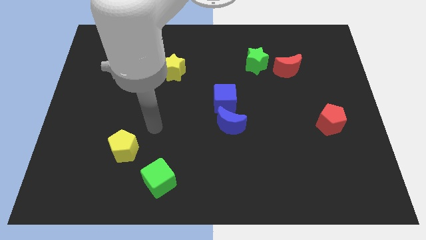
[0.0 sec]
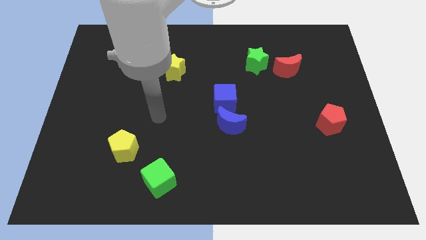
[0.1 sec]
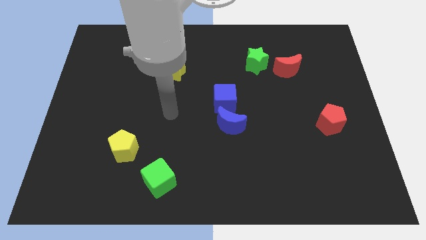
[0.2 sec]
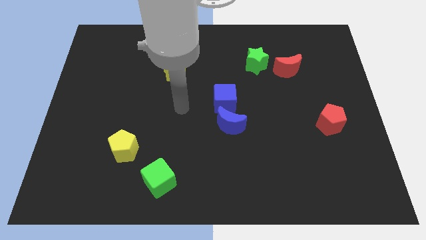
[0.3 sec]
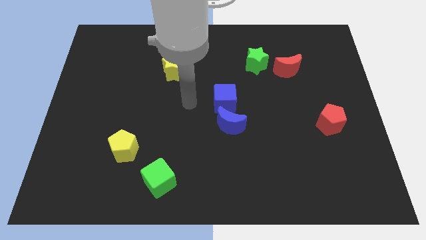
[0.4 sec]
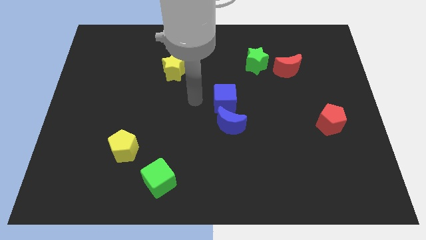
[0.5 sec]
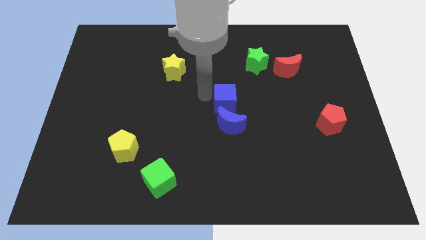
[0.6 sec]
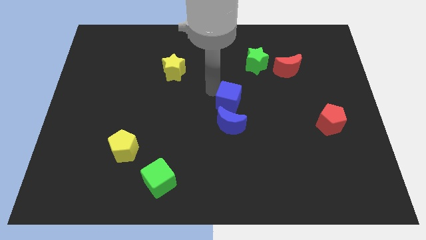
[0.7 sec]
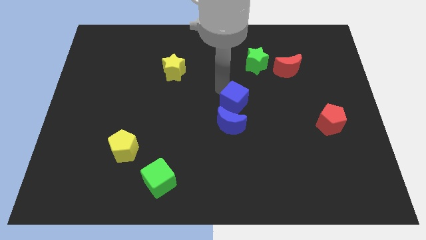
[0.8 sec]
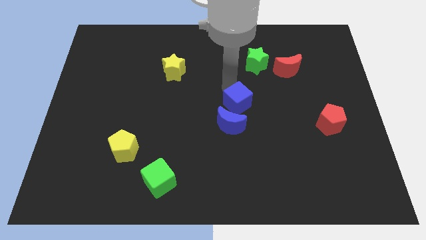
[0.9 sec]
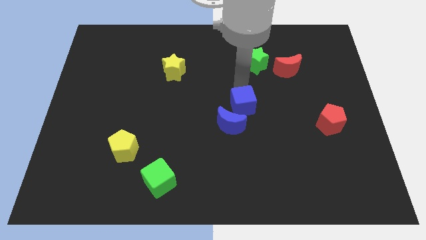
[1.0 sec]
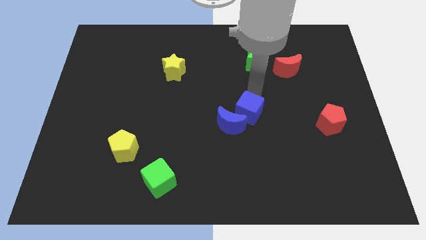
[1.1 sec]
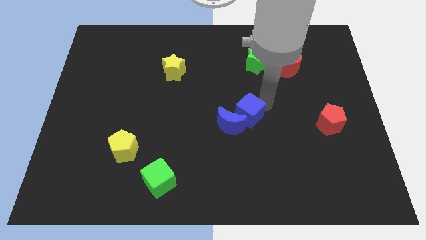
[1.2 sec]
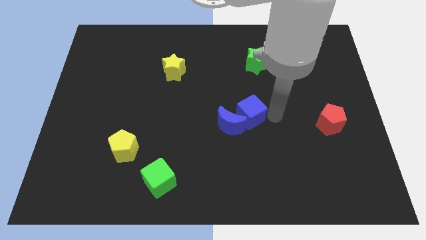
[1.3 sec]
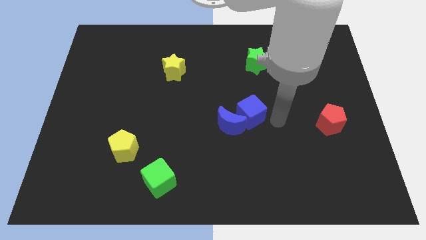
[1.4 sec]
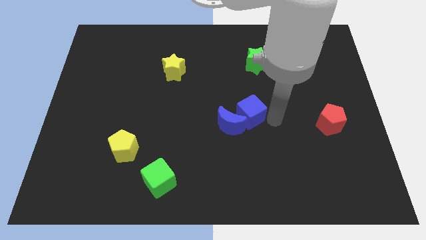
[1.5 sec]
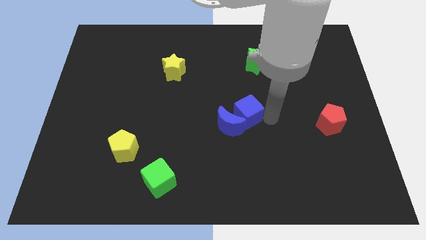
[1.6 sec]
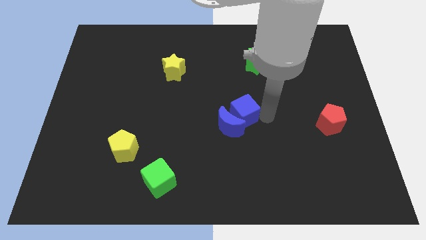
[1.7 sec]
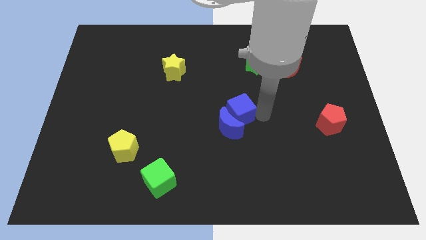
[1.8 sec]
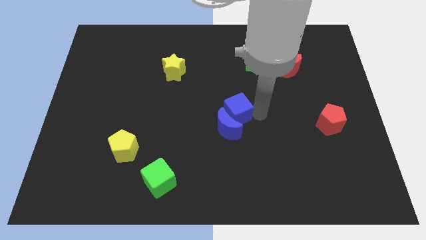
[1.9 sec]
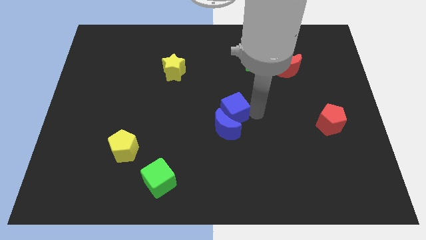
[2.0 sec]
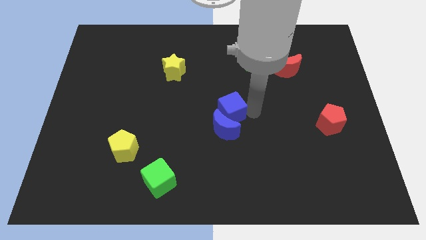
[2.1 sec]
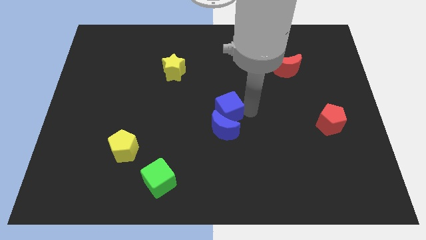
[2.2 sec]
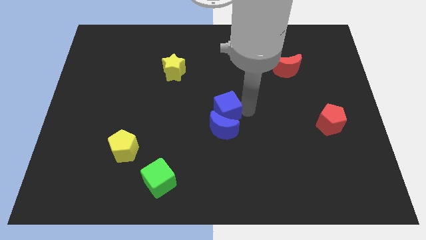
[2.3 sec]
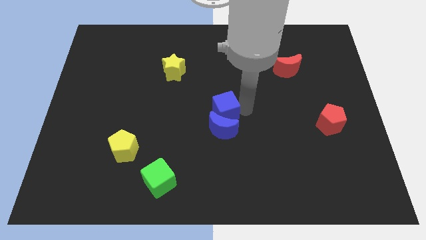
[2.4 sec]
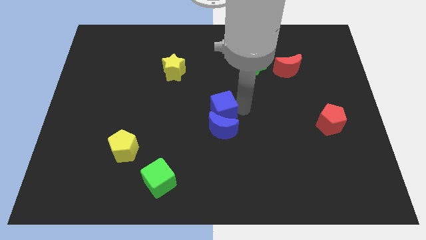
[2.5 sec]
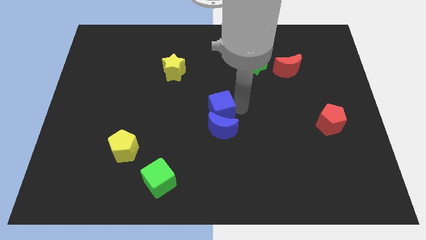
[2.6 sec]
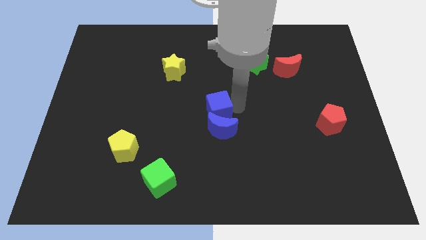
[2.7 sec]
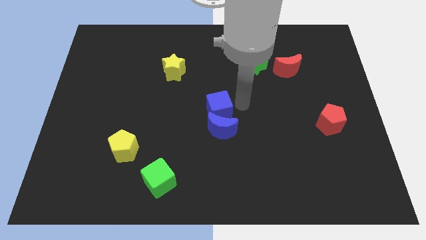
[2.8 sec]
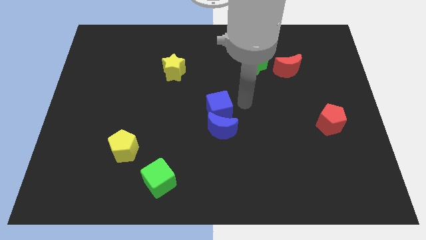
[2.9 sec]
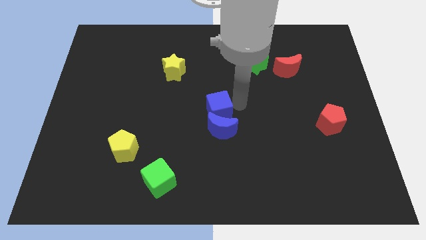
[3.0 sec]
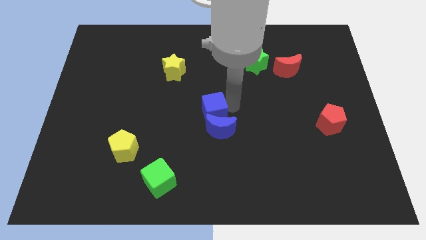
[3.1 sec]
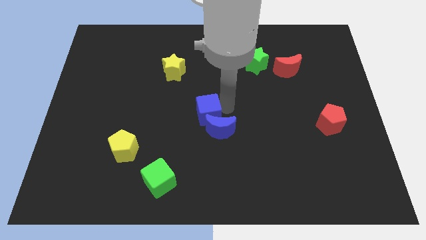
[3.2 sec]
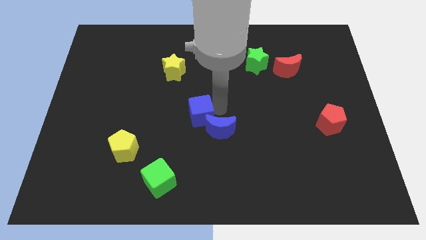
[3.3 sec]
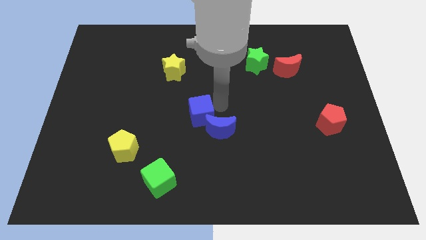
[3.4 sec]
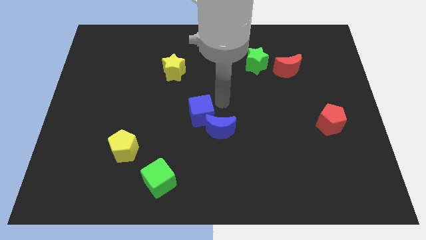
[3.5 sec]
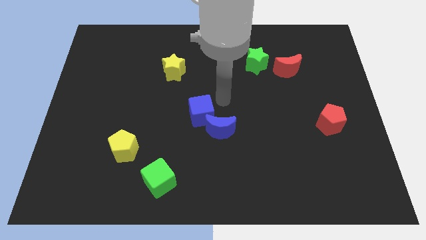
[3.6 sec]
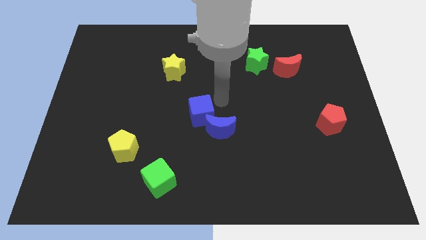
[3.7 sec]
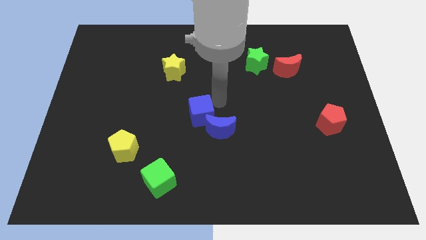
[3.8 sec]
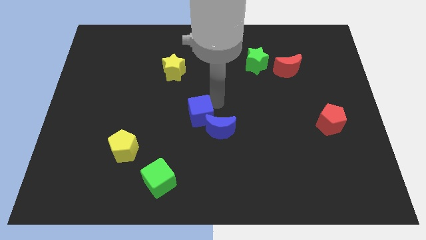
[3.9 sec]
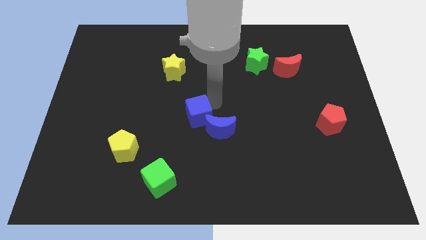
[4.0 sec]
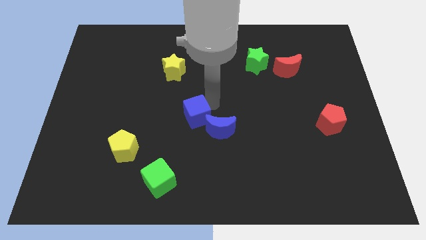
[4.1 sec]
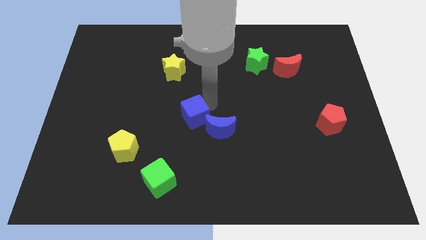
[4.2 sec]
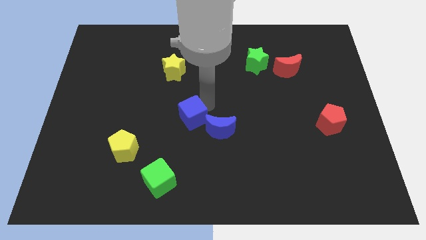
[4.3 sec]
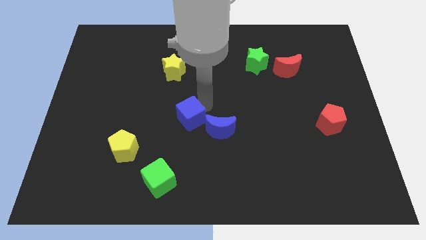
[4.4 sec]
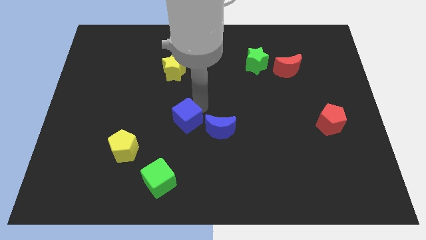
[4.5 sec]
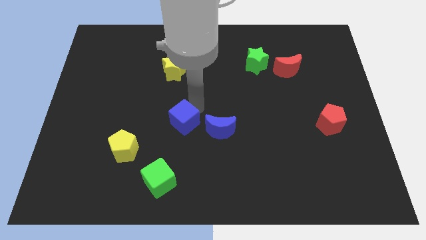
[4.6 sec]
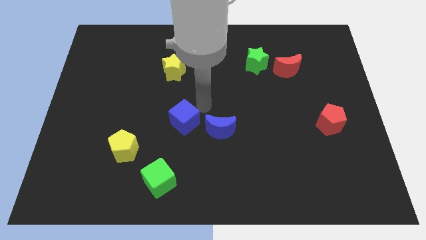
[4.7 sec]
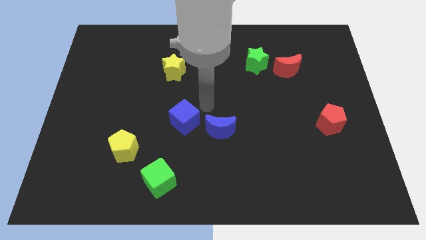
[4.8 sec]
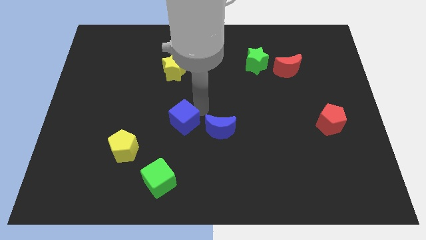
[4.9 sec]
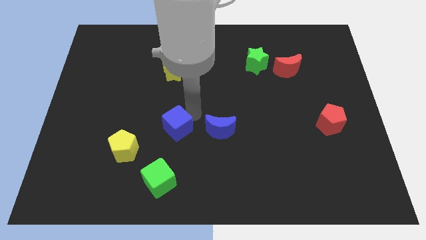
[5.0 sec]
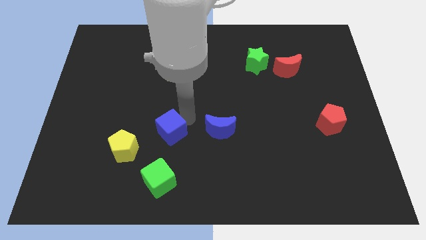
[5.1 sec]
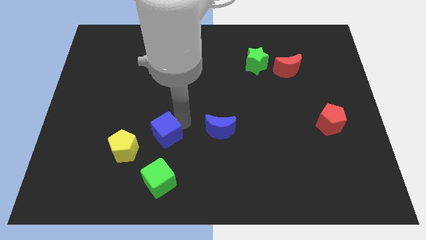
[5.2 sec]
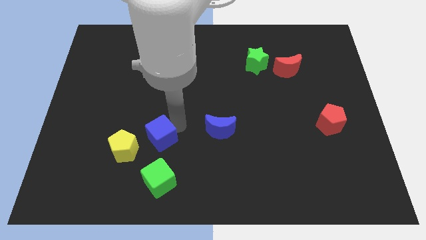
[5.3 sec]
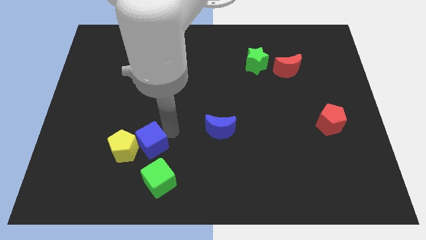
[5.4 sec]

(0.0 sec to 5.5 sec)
move the blue cube close to the yellow pentagon

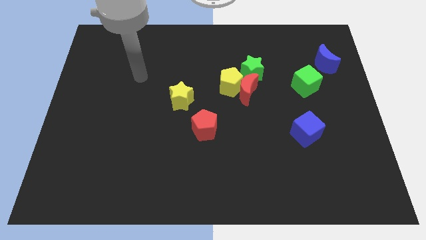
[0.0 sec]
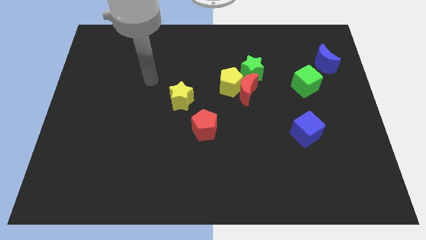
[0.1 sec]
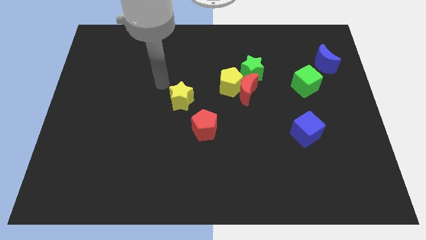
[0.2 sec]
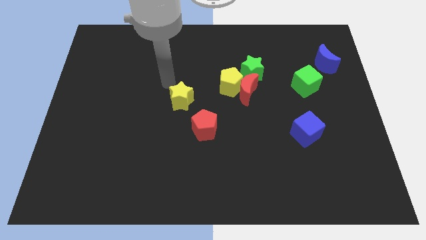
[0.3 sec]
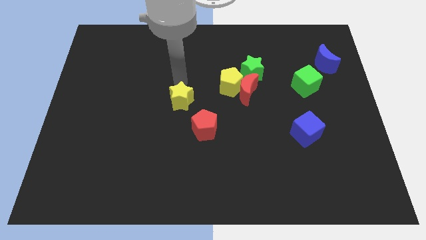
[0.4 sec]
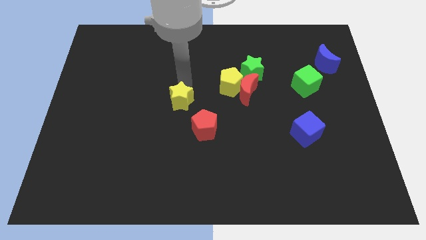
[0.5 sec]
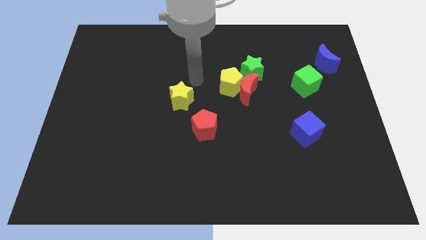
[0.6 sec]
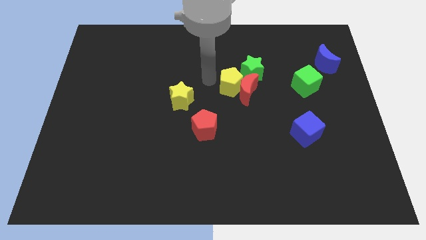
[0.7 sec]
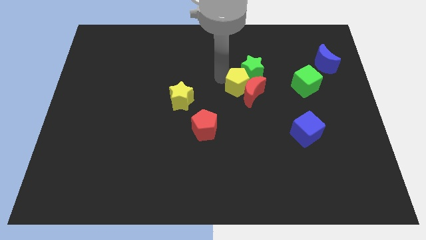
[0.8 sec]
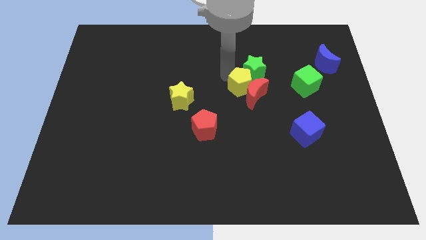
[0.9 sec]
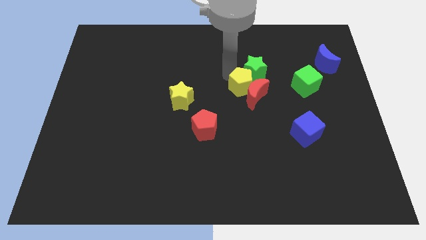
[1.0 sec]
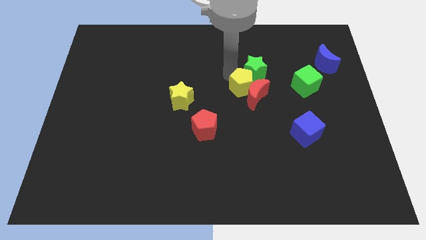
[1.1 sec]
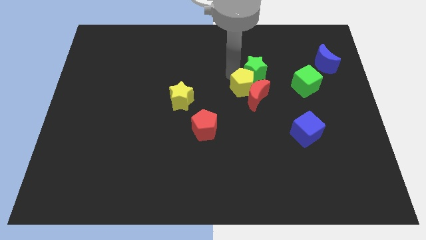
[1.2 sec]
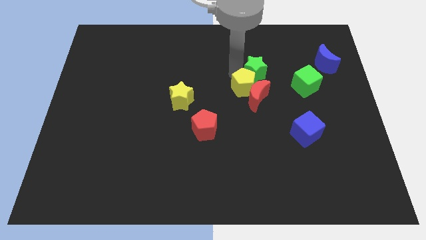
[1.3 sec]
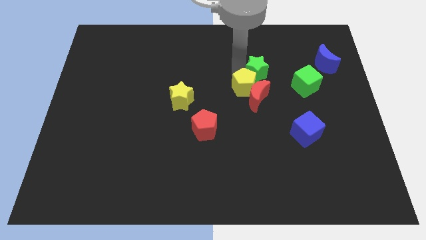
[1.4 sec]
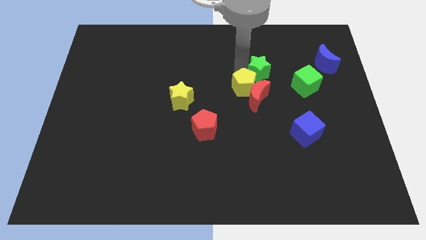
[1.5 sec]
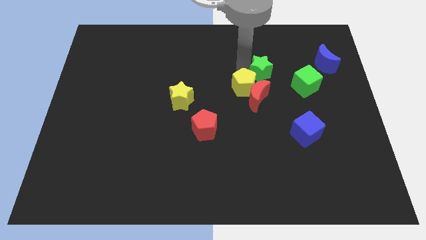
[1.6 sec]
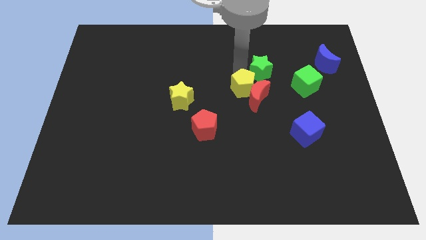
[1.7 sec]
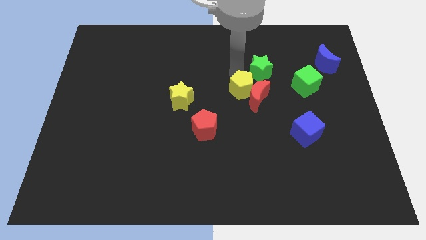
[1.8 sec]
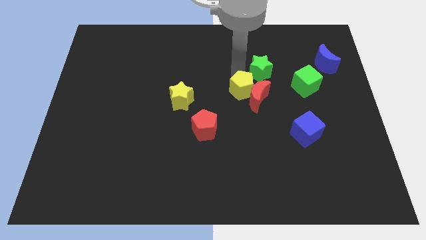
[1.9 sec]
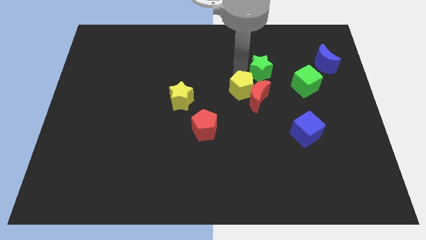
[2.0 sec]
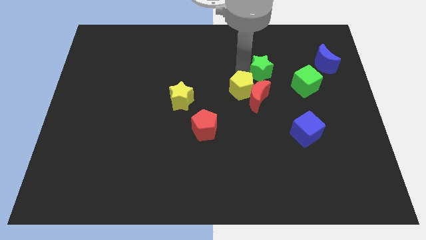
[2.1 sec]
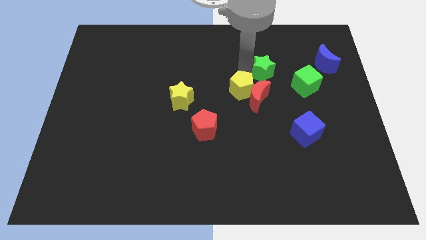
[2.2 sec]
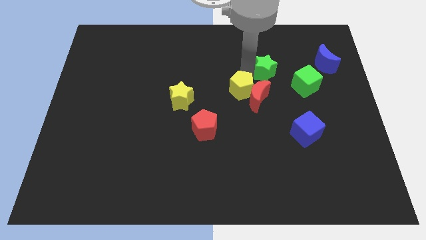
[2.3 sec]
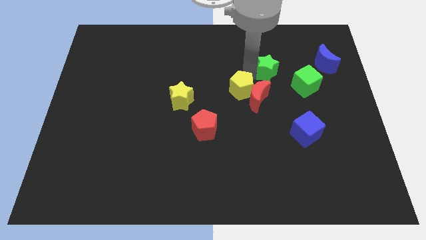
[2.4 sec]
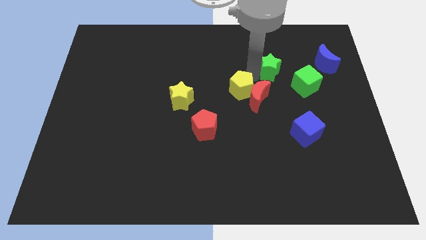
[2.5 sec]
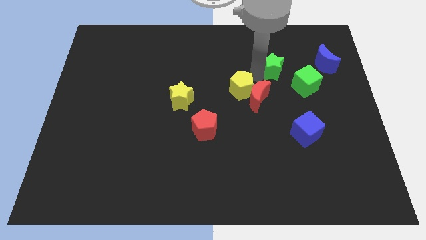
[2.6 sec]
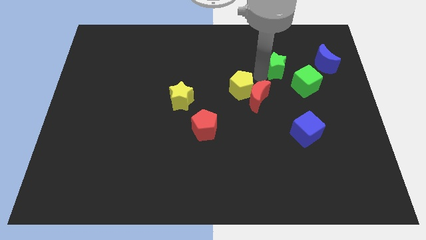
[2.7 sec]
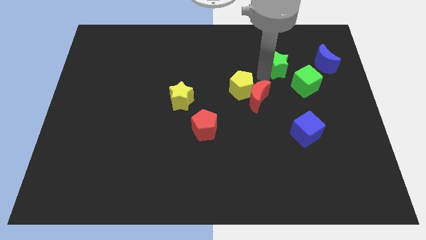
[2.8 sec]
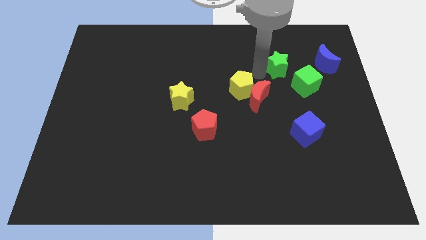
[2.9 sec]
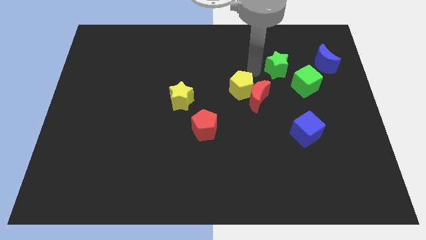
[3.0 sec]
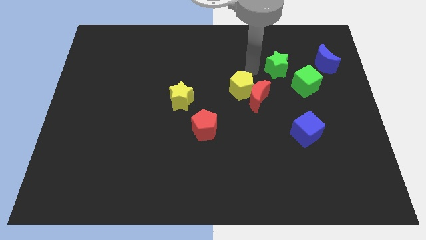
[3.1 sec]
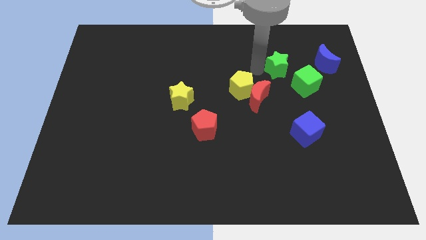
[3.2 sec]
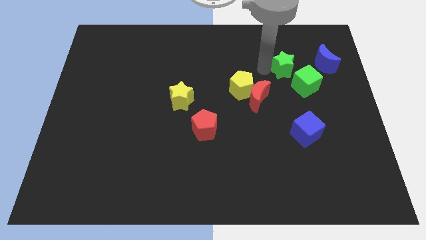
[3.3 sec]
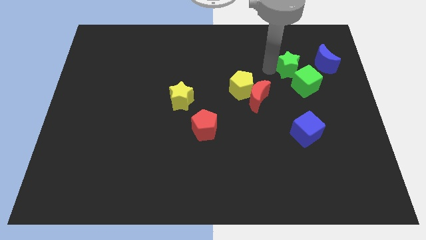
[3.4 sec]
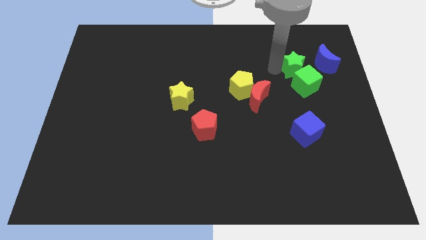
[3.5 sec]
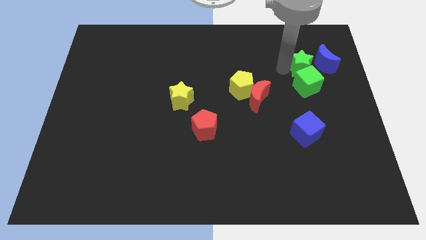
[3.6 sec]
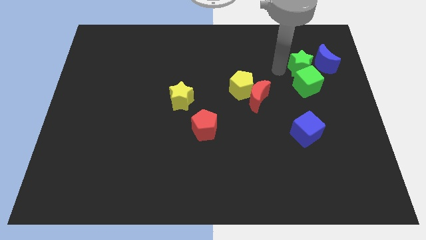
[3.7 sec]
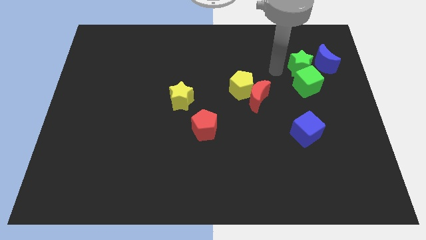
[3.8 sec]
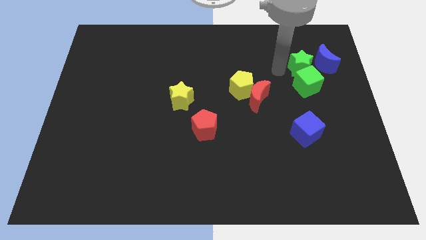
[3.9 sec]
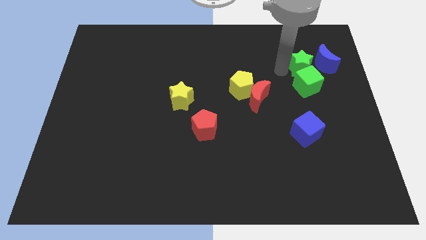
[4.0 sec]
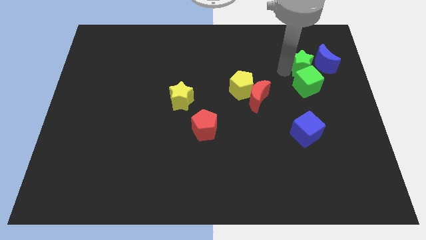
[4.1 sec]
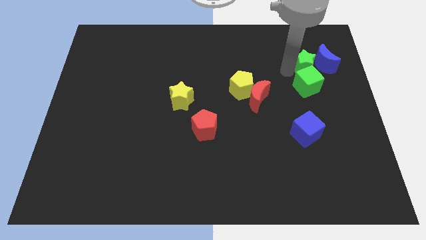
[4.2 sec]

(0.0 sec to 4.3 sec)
put the green star next to the blue moon
